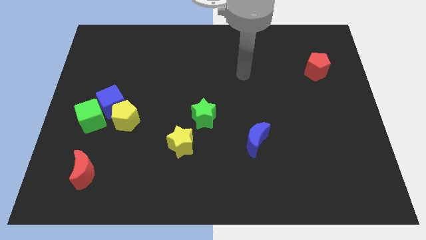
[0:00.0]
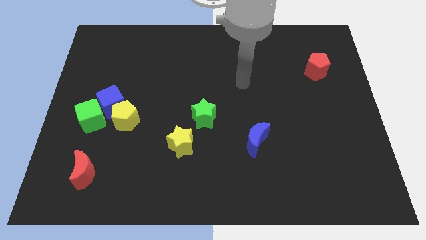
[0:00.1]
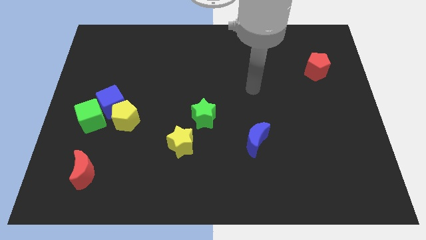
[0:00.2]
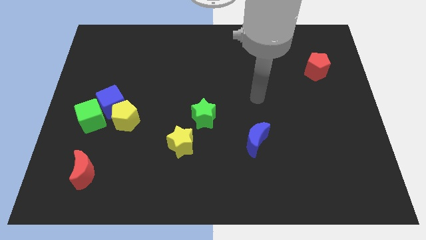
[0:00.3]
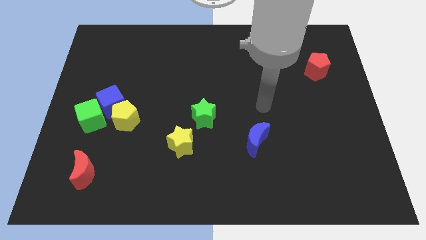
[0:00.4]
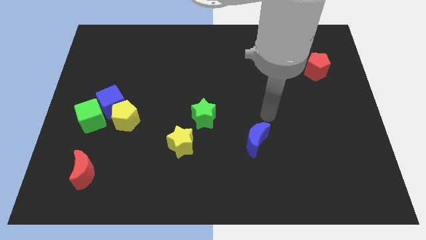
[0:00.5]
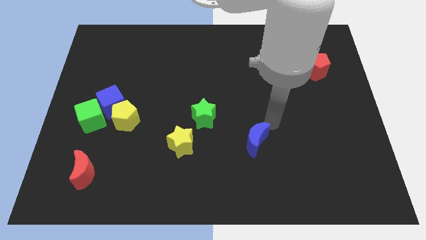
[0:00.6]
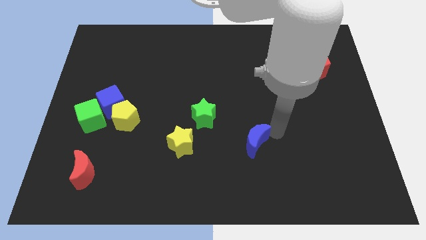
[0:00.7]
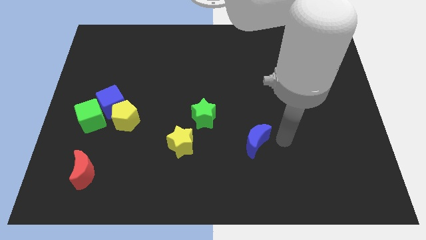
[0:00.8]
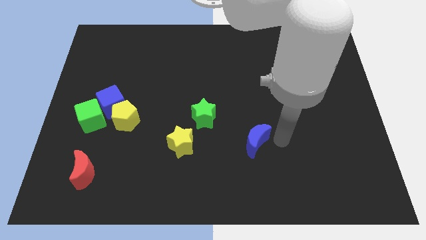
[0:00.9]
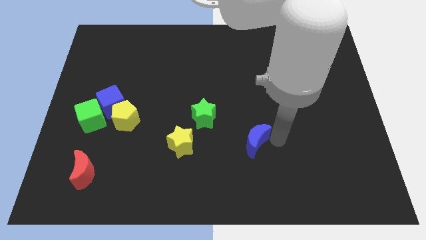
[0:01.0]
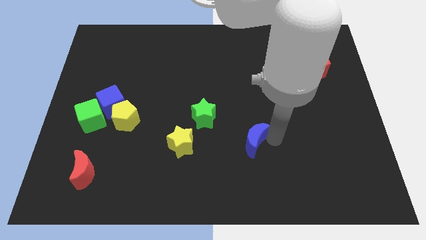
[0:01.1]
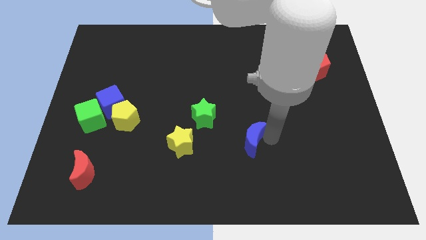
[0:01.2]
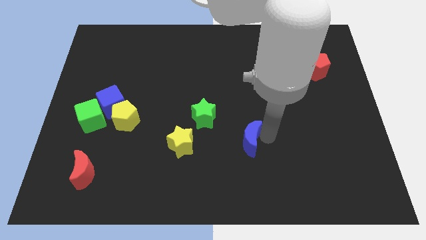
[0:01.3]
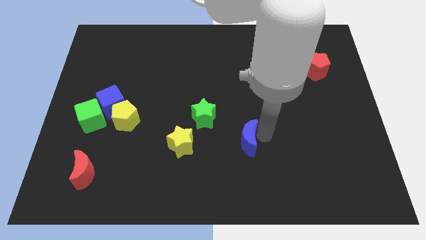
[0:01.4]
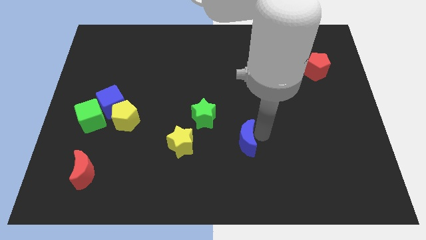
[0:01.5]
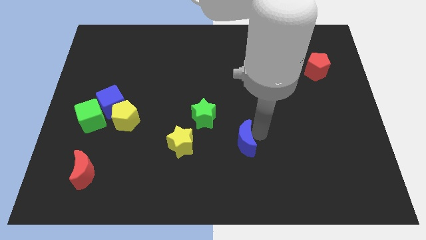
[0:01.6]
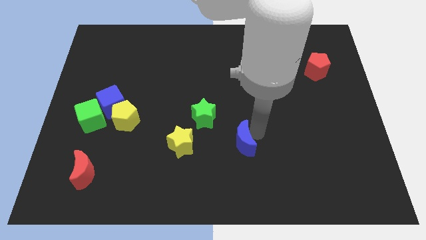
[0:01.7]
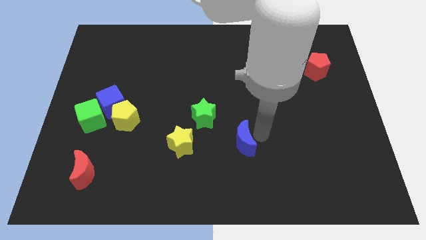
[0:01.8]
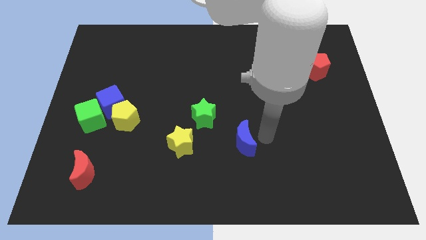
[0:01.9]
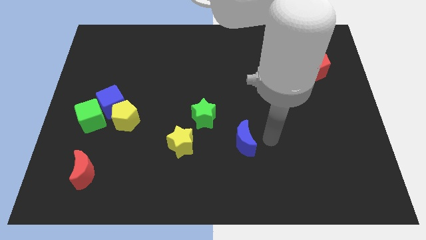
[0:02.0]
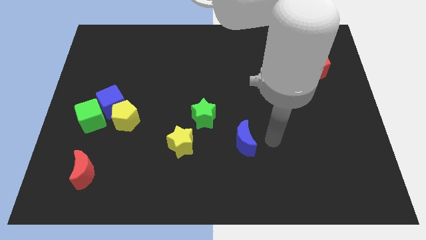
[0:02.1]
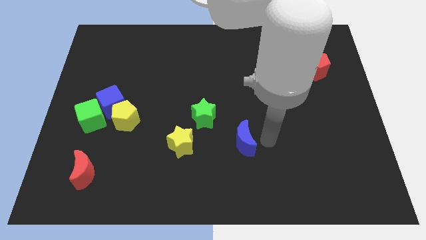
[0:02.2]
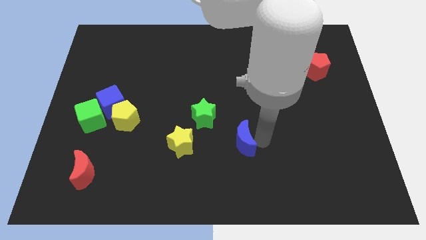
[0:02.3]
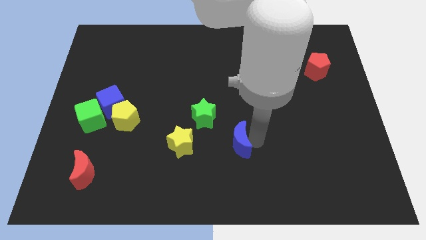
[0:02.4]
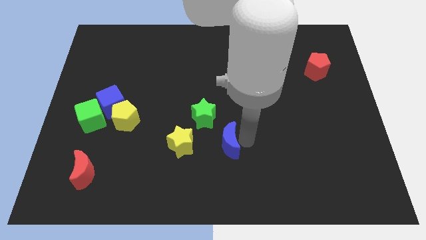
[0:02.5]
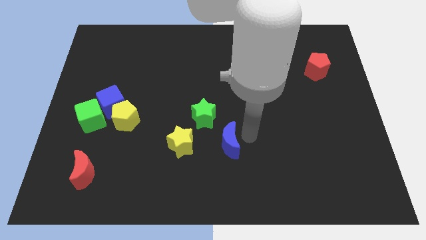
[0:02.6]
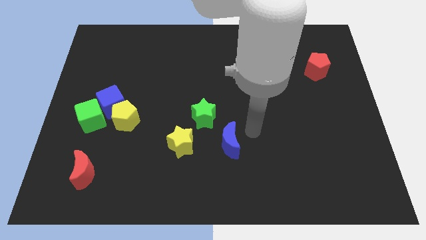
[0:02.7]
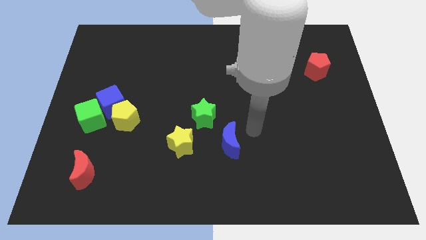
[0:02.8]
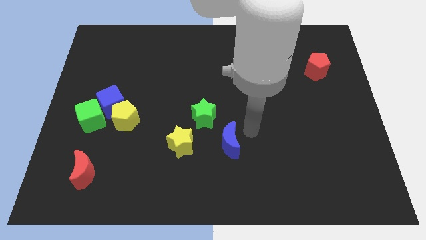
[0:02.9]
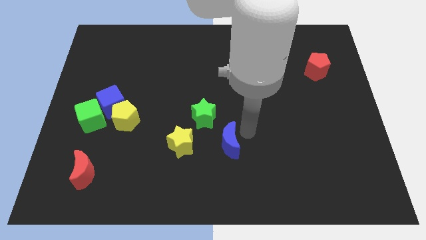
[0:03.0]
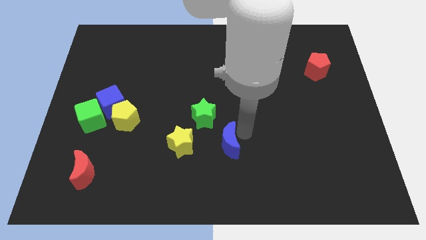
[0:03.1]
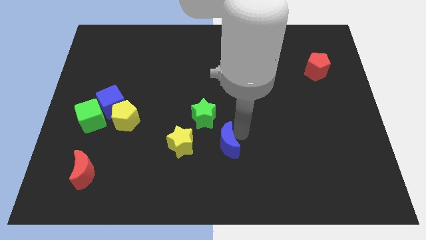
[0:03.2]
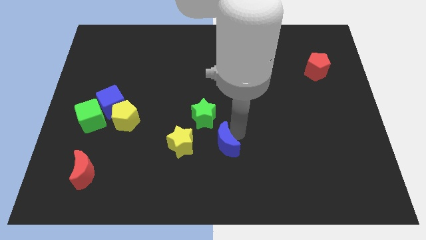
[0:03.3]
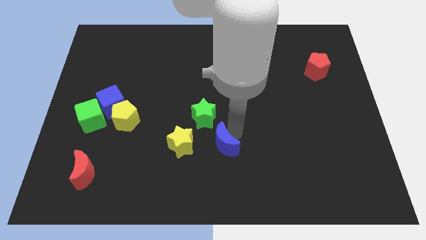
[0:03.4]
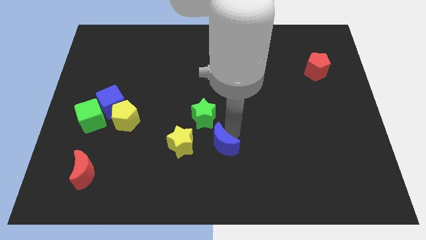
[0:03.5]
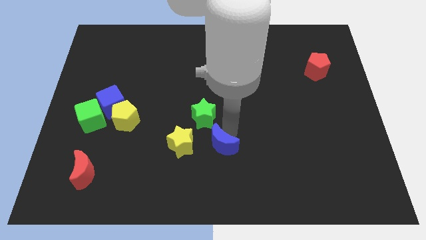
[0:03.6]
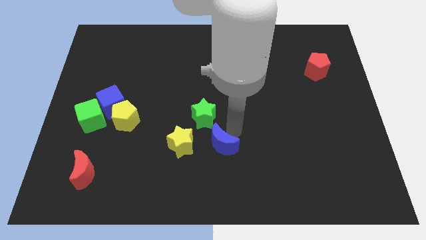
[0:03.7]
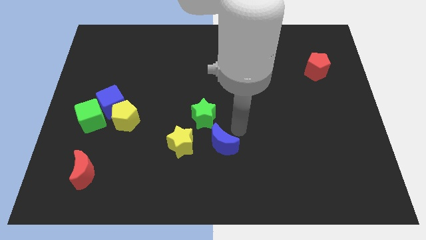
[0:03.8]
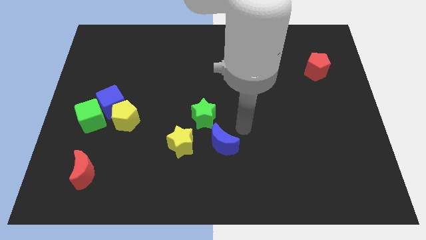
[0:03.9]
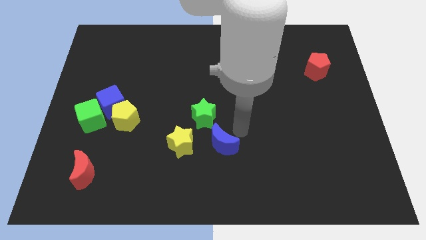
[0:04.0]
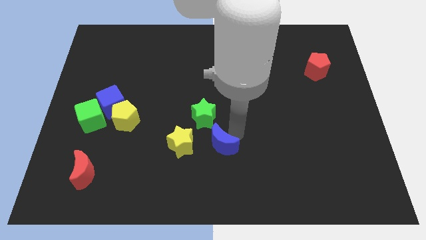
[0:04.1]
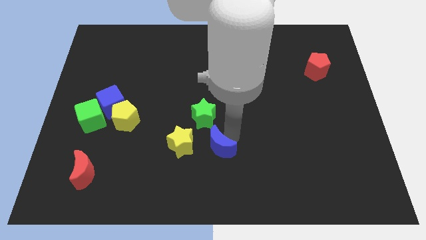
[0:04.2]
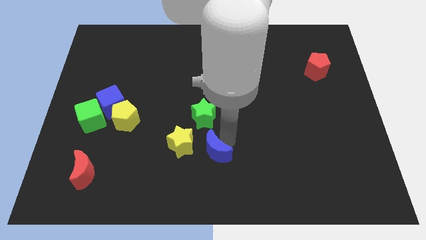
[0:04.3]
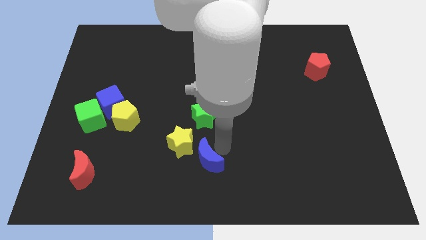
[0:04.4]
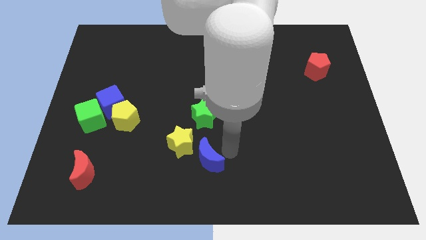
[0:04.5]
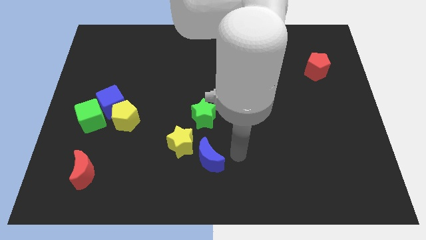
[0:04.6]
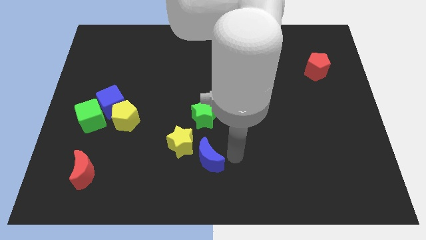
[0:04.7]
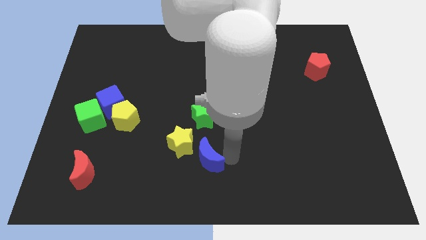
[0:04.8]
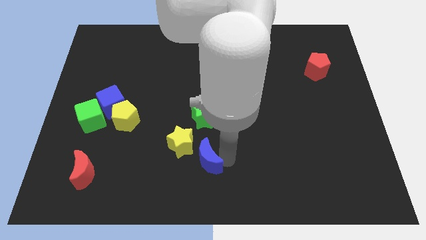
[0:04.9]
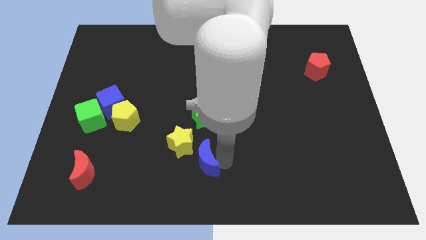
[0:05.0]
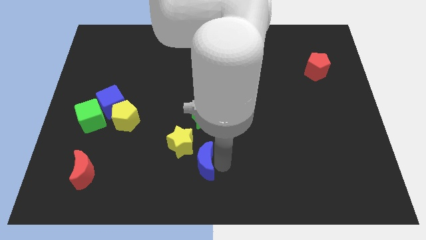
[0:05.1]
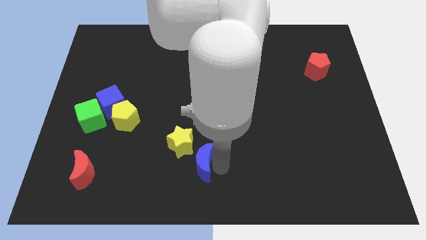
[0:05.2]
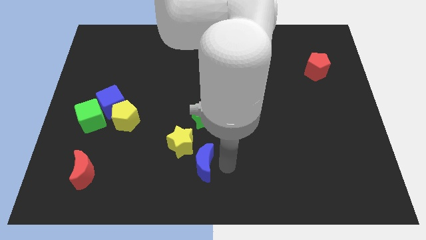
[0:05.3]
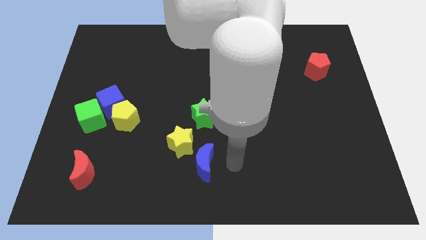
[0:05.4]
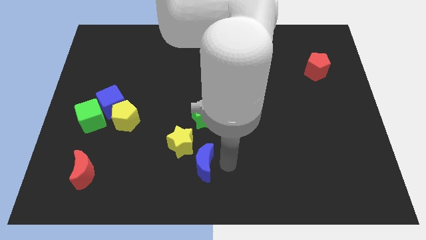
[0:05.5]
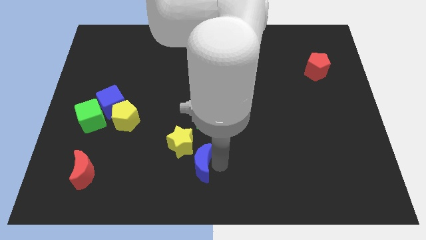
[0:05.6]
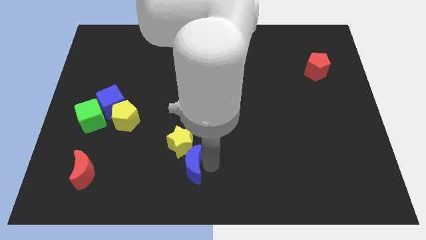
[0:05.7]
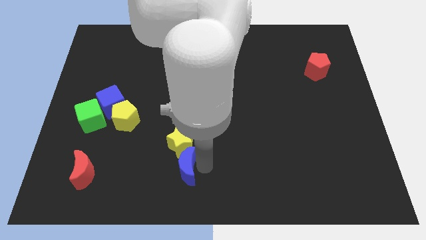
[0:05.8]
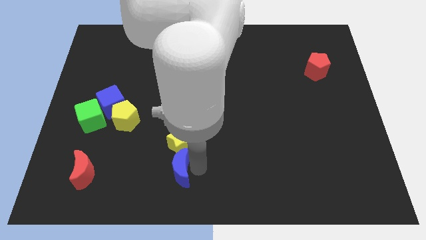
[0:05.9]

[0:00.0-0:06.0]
push the blue moon diagonally down and to the left of the yellow star
